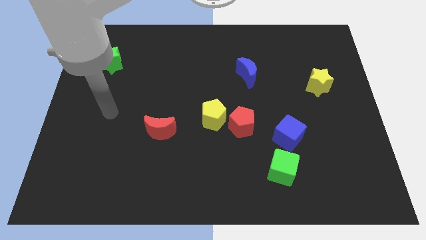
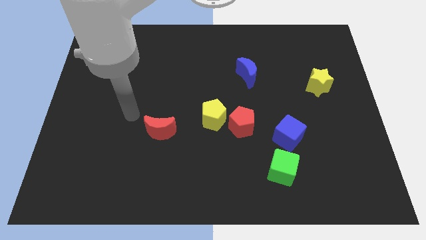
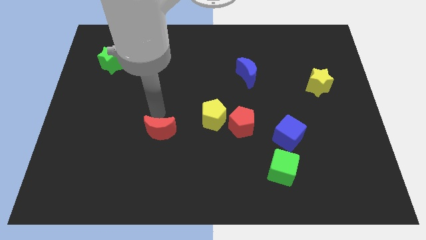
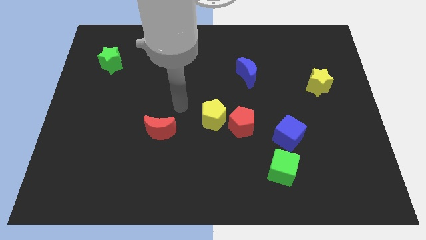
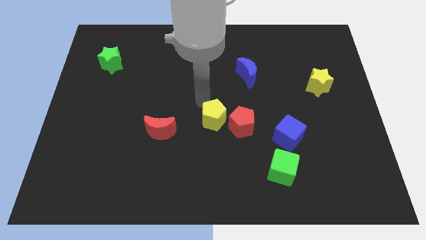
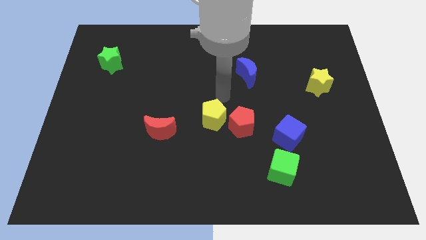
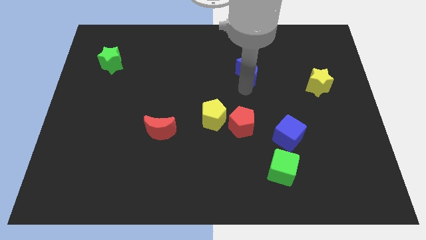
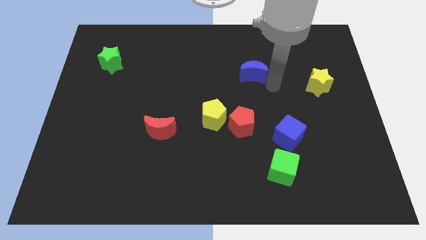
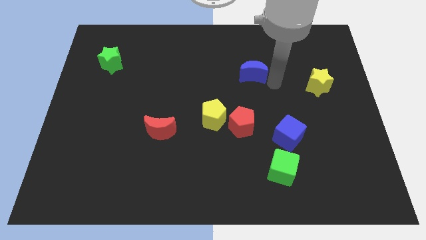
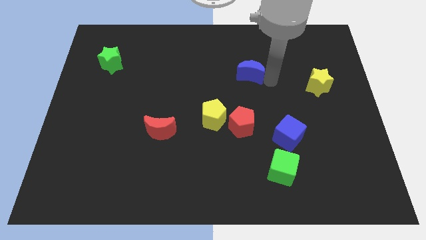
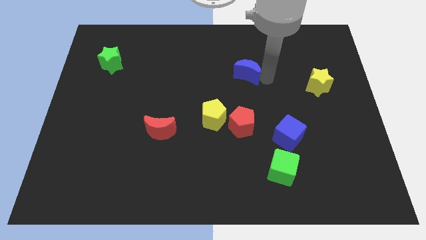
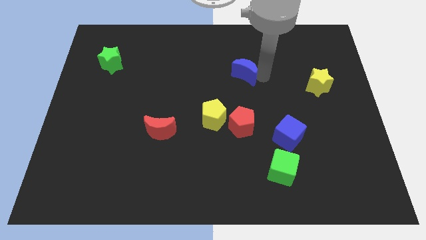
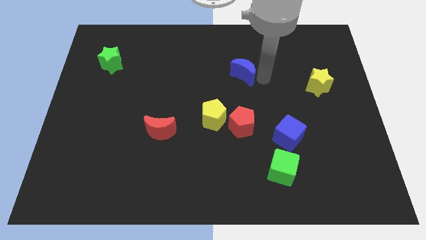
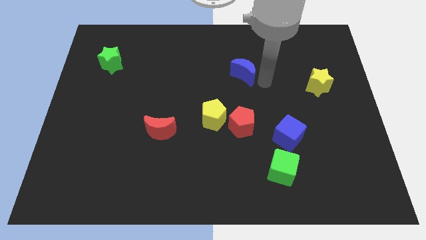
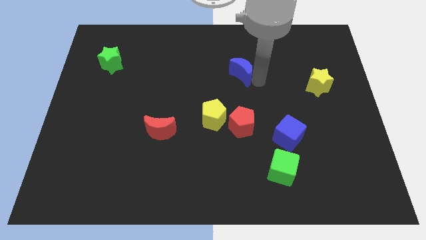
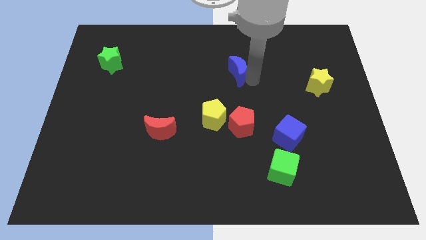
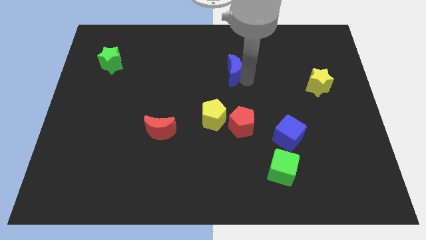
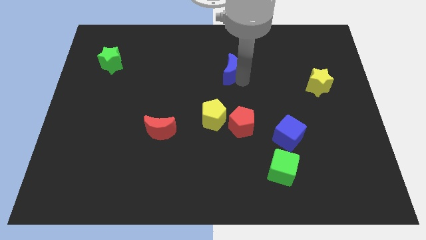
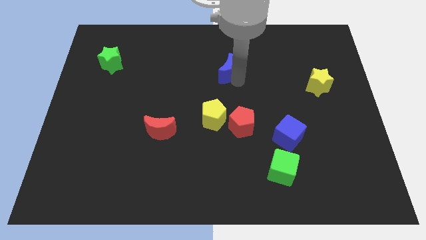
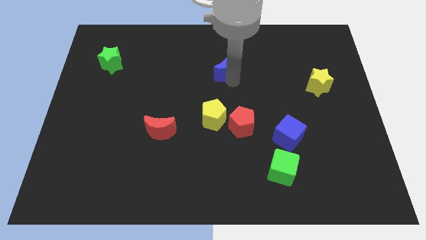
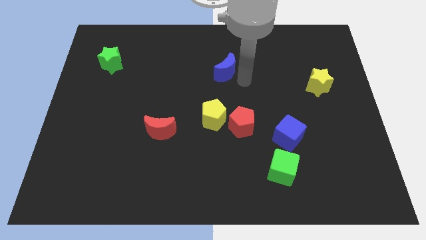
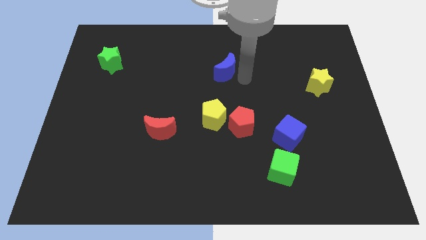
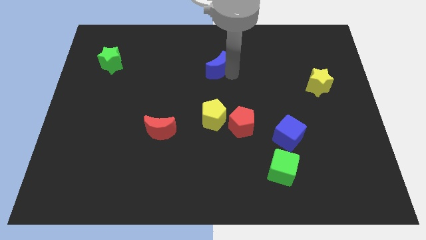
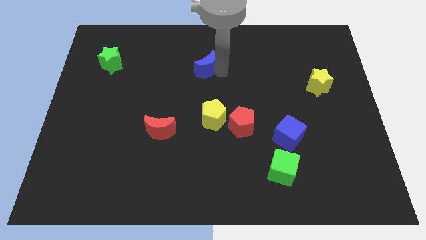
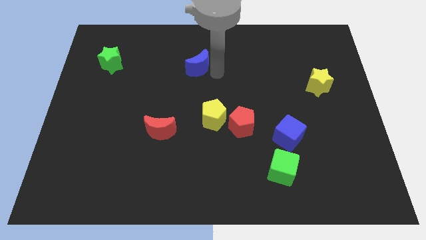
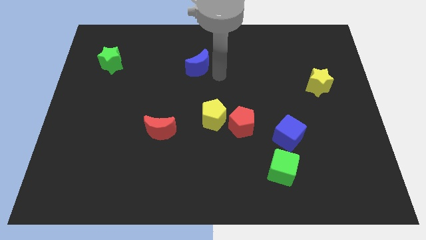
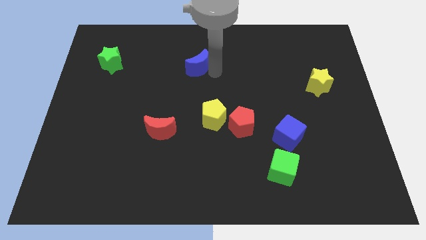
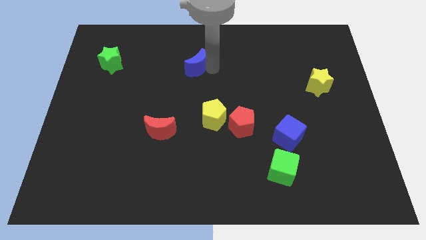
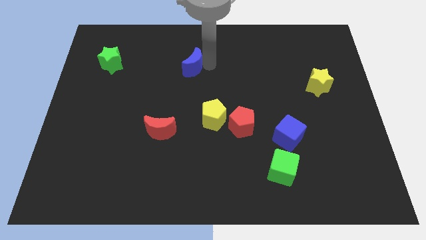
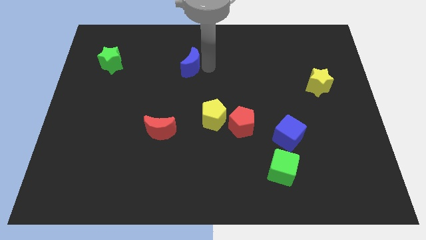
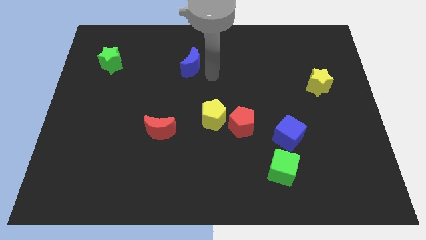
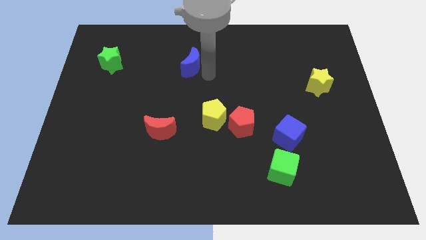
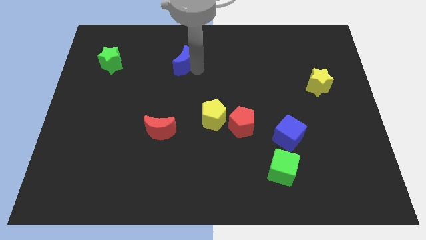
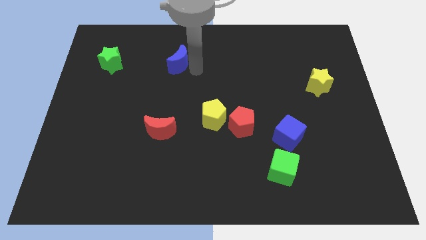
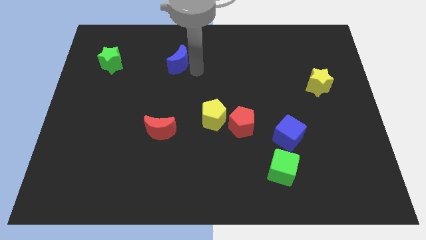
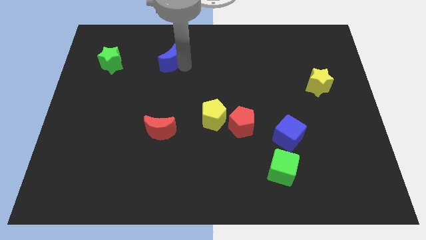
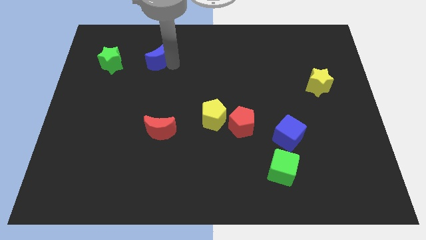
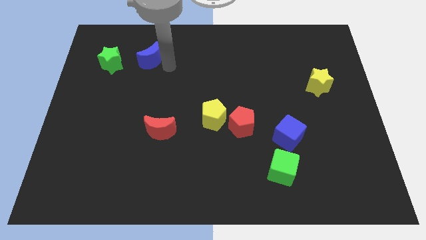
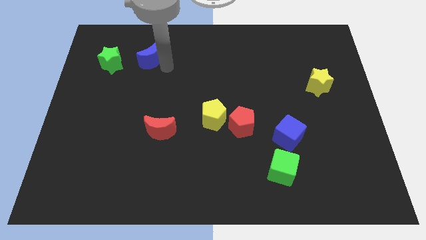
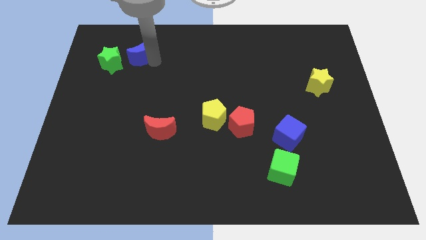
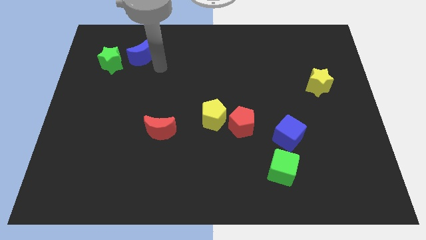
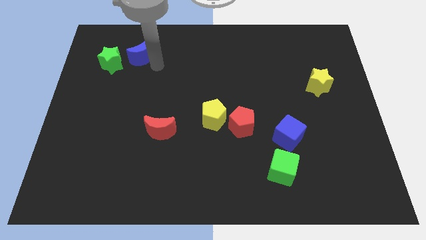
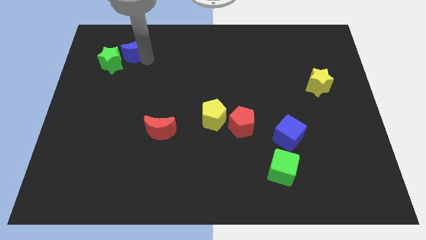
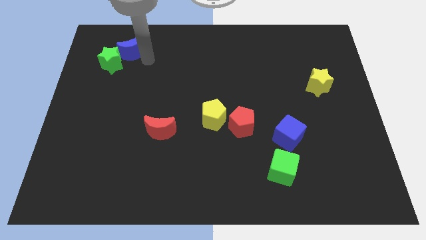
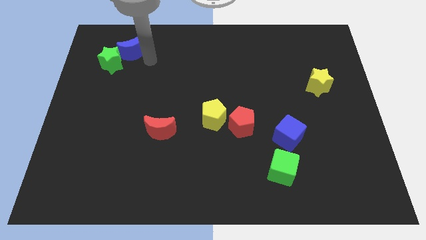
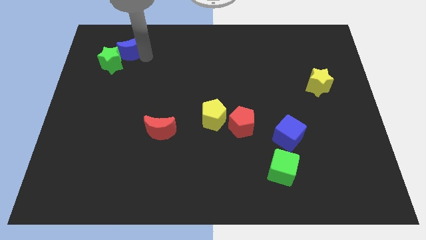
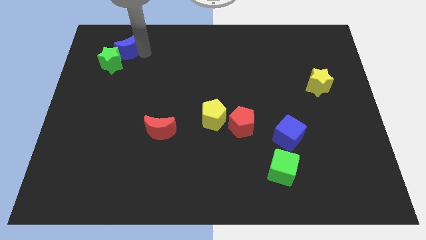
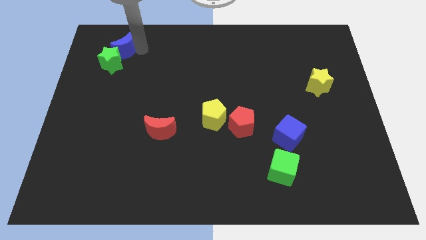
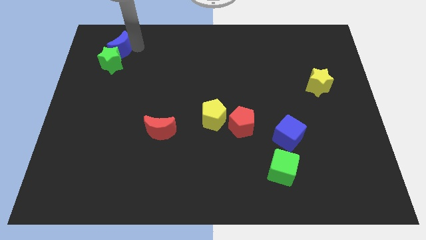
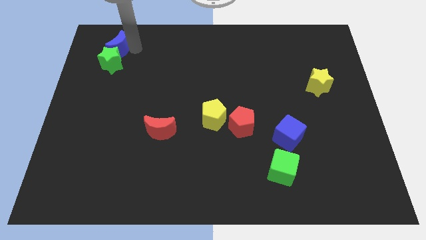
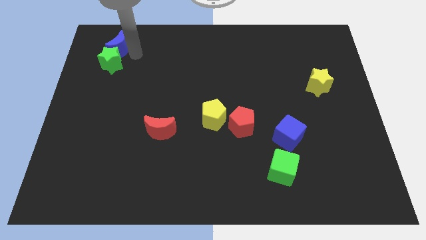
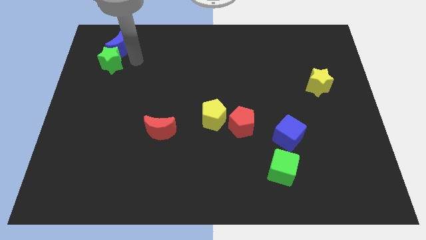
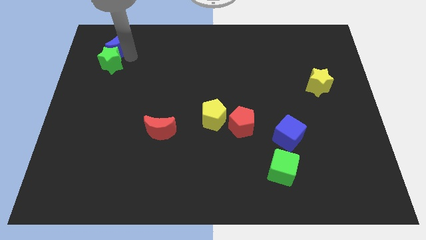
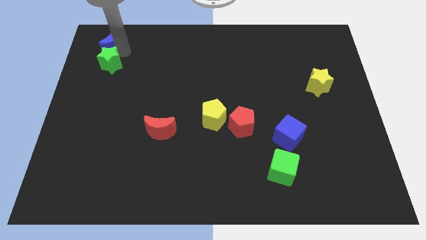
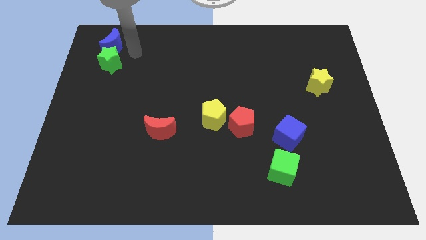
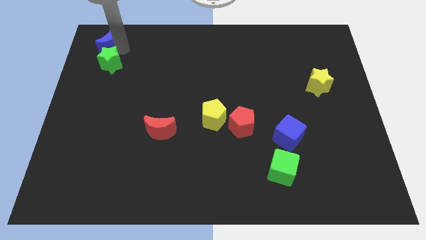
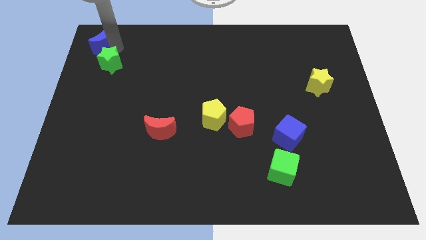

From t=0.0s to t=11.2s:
put the blue moon to the top left corner

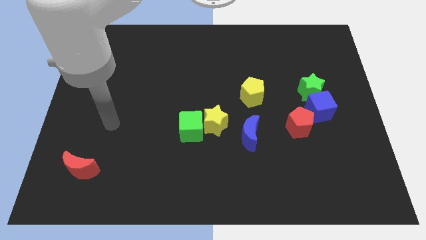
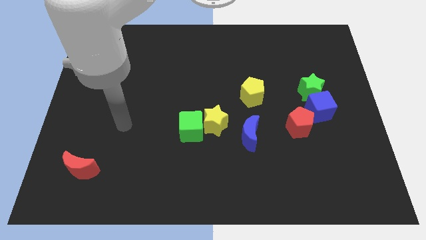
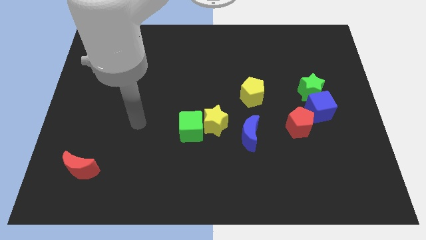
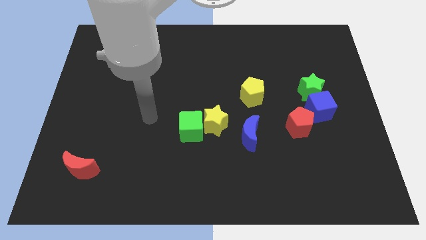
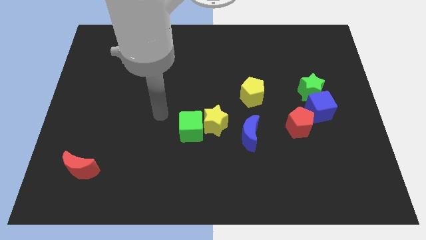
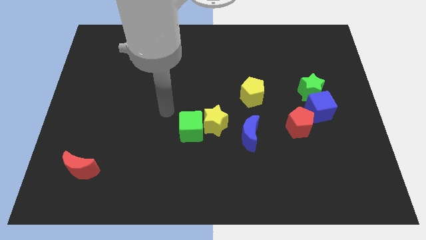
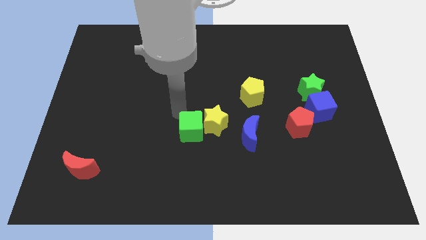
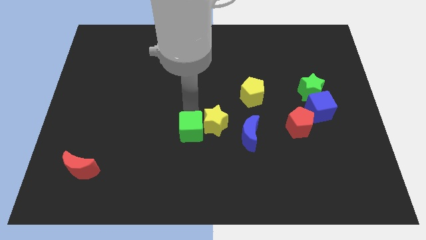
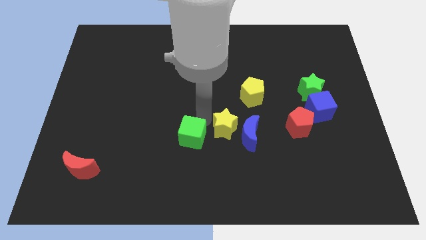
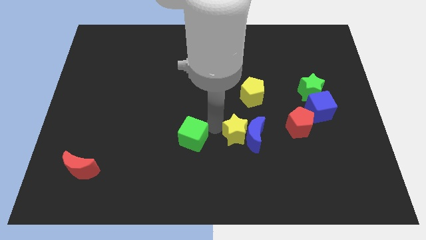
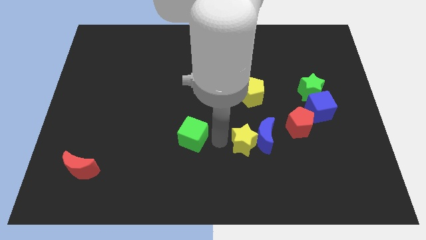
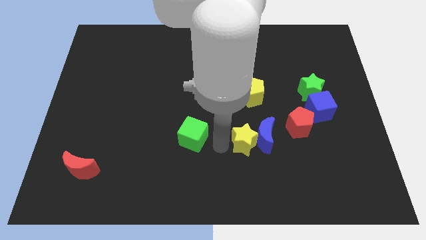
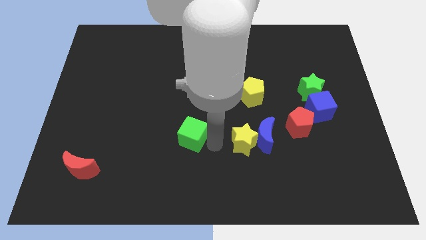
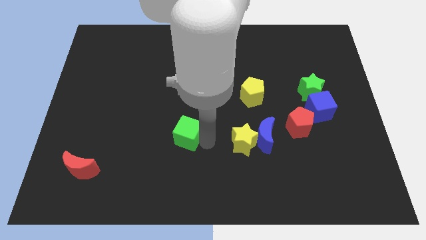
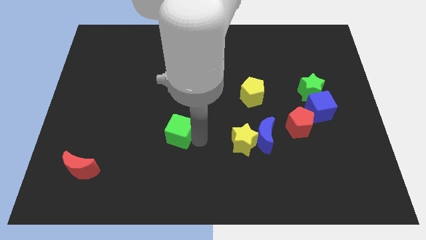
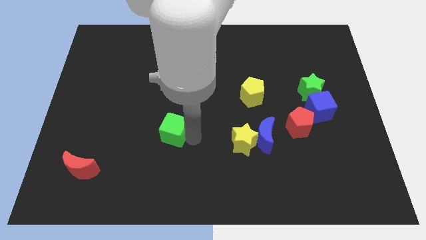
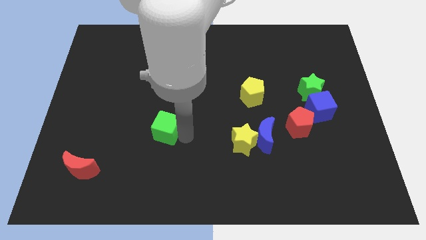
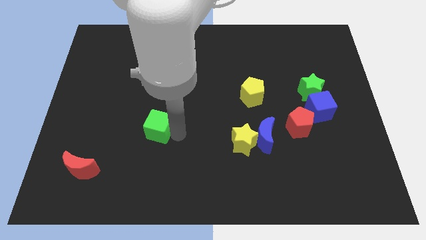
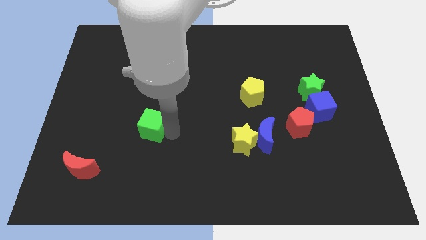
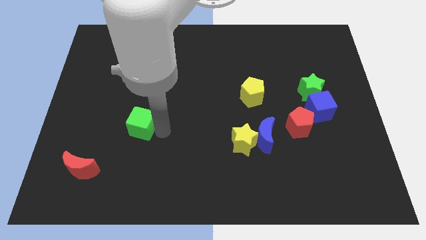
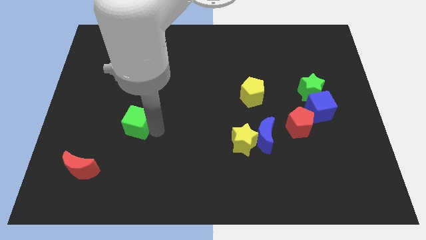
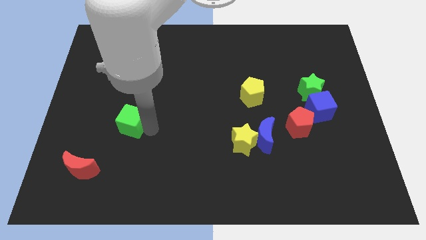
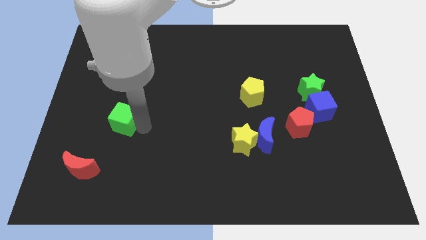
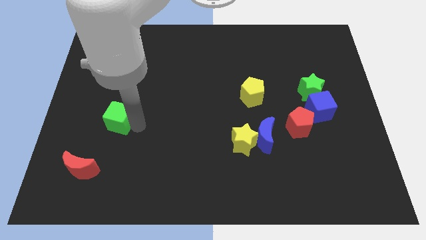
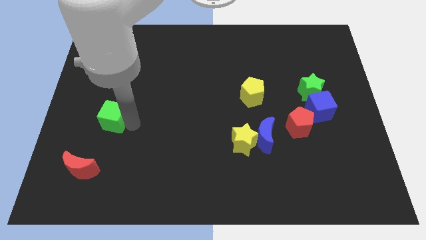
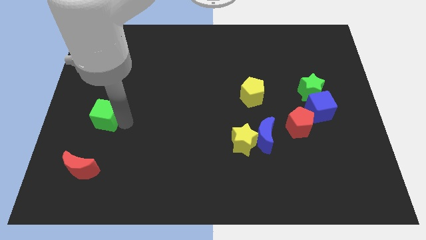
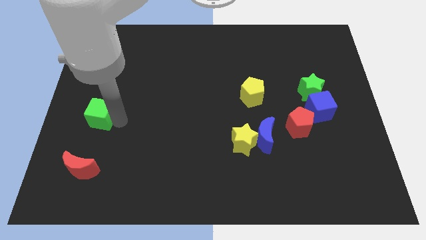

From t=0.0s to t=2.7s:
slide the green cube to the center left
